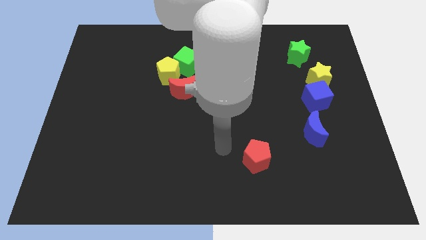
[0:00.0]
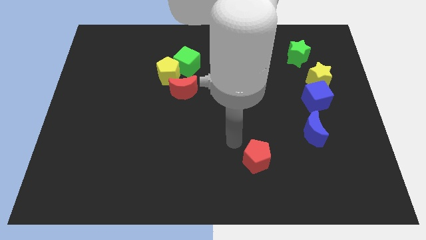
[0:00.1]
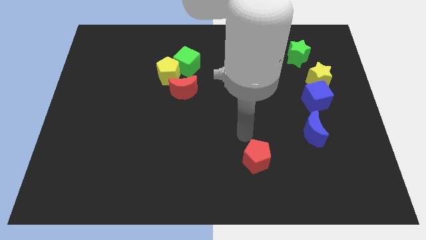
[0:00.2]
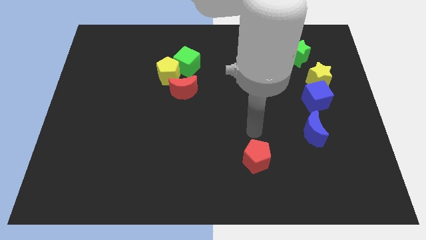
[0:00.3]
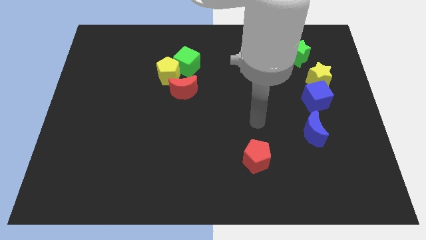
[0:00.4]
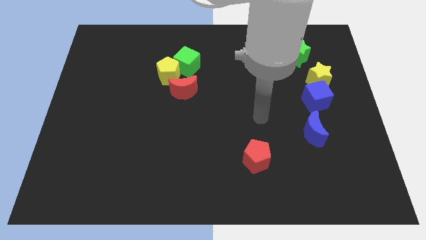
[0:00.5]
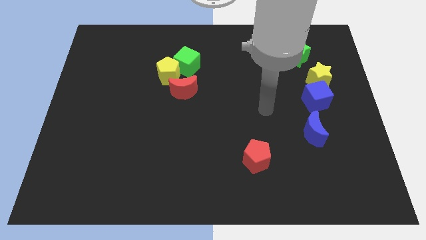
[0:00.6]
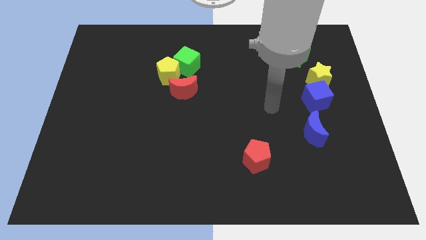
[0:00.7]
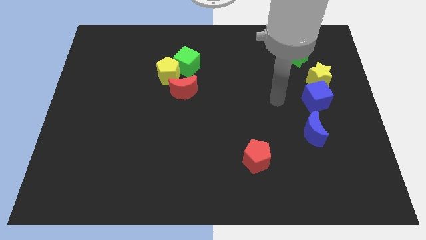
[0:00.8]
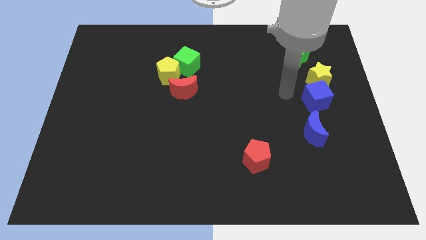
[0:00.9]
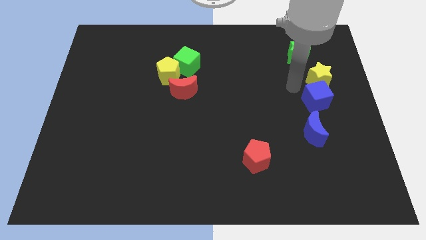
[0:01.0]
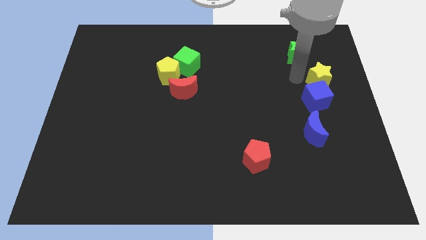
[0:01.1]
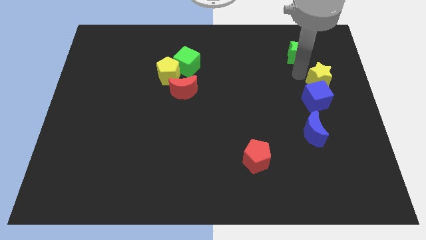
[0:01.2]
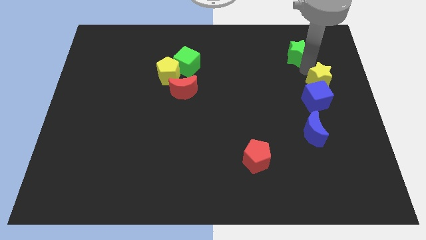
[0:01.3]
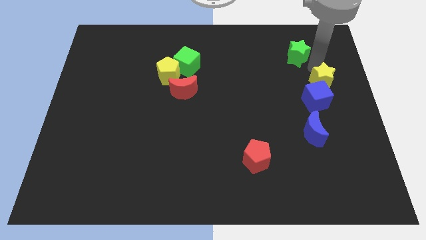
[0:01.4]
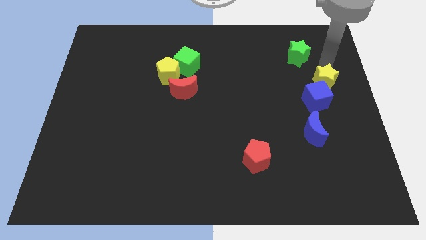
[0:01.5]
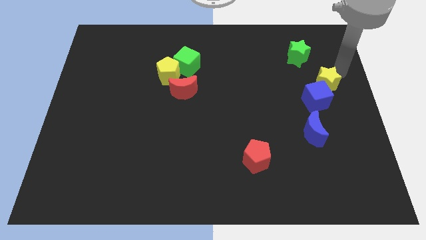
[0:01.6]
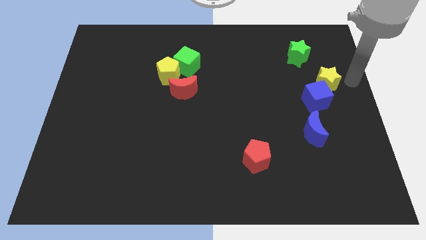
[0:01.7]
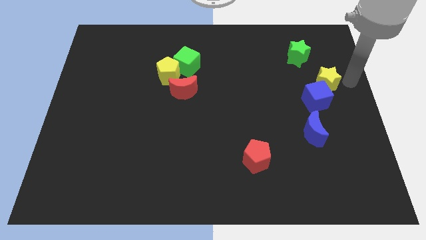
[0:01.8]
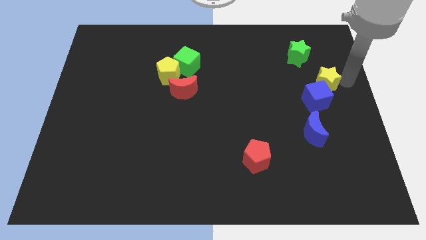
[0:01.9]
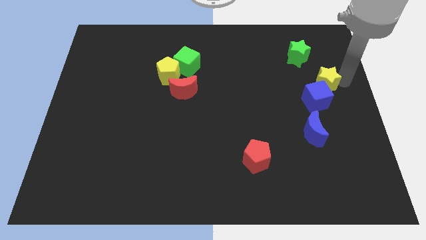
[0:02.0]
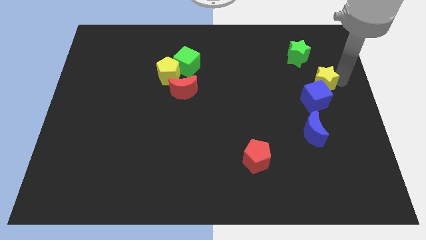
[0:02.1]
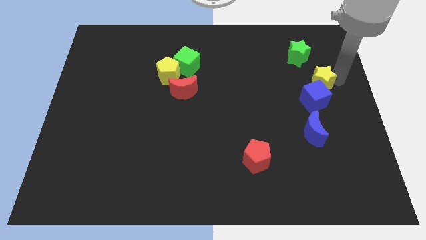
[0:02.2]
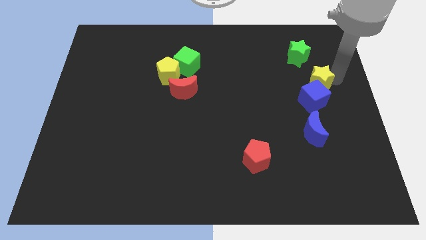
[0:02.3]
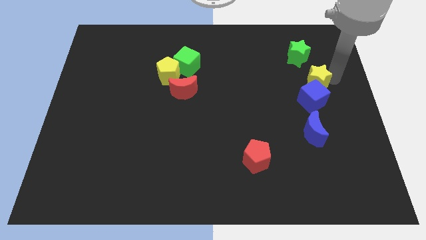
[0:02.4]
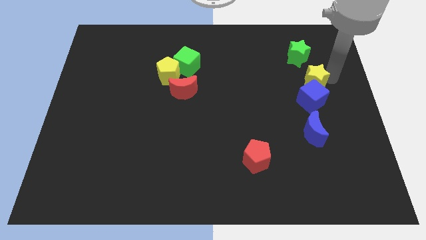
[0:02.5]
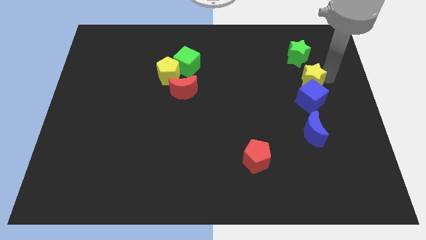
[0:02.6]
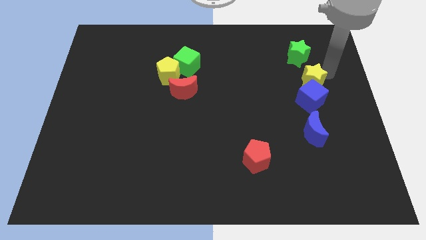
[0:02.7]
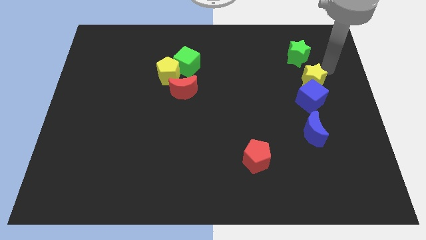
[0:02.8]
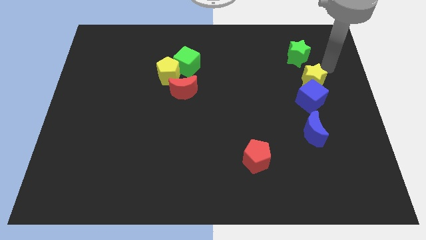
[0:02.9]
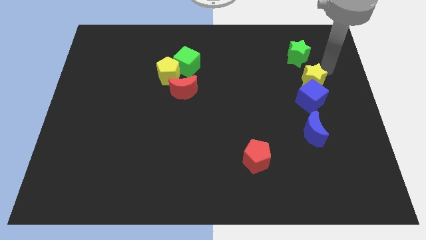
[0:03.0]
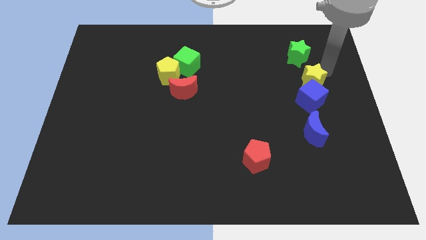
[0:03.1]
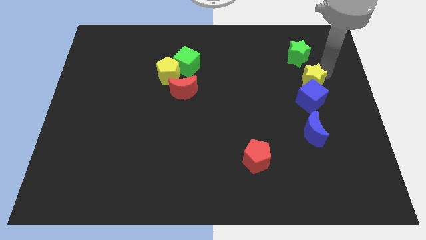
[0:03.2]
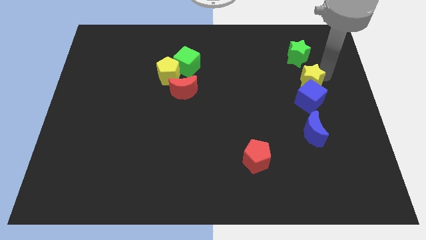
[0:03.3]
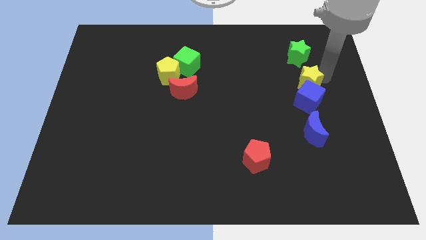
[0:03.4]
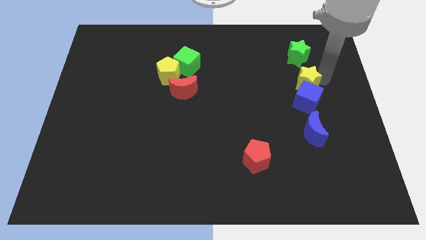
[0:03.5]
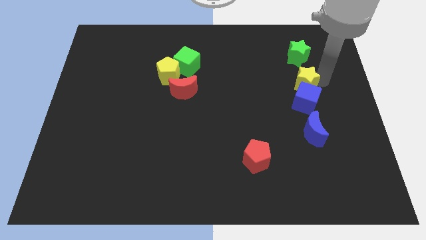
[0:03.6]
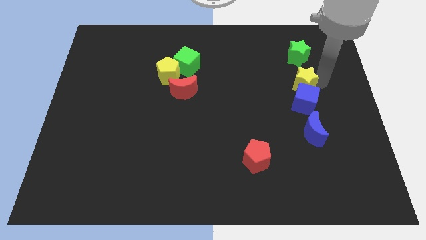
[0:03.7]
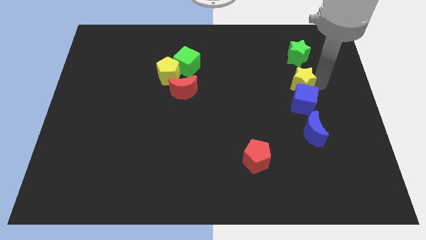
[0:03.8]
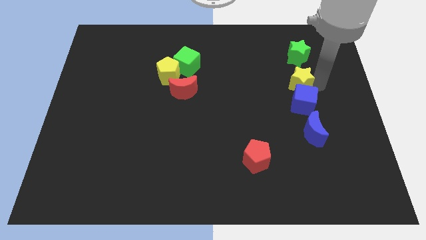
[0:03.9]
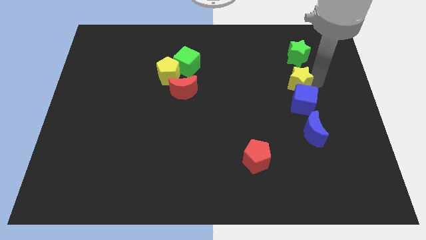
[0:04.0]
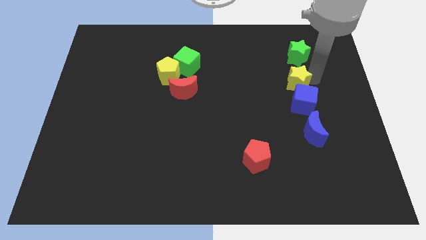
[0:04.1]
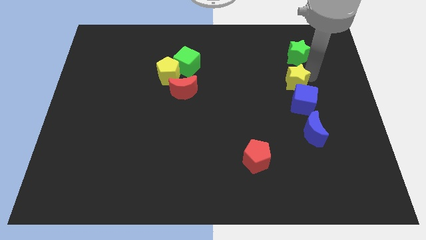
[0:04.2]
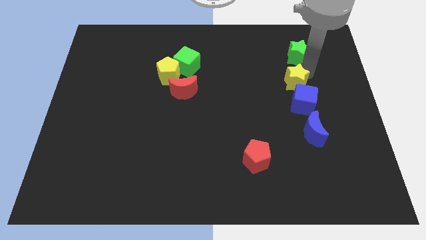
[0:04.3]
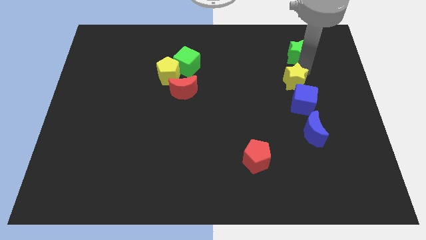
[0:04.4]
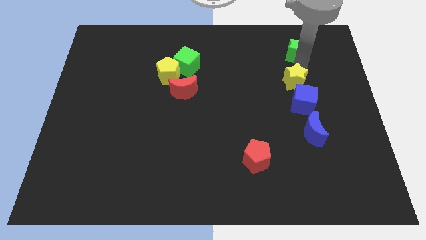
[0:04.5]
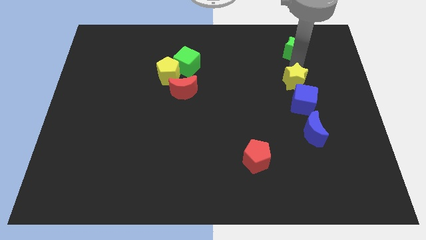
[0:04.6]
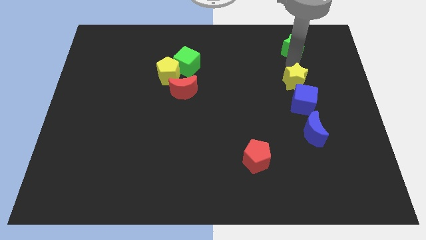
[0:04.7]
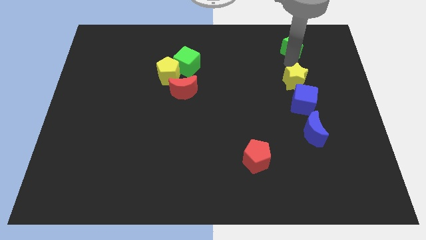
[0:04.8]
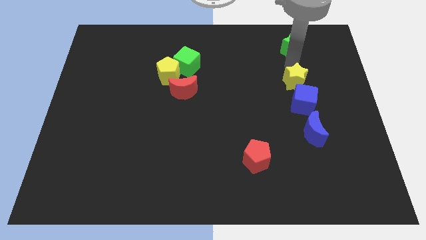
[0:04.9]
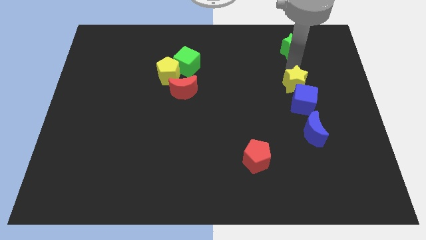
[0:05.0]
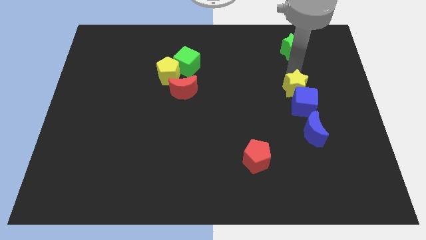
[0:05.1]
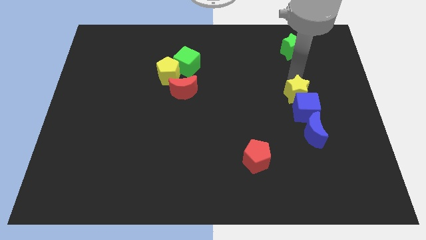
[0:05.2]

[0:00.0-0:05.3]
slightly push the yellow star down and left diagonally

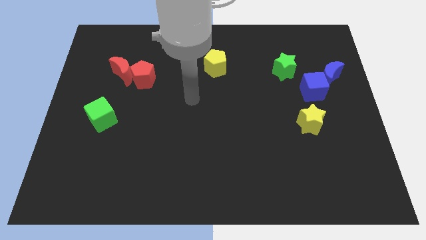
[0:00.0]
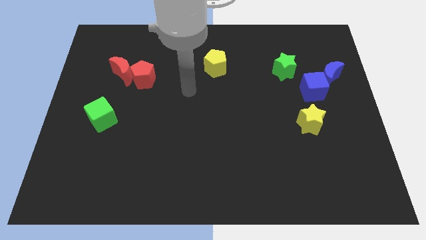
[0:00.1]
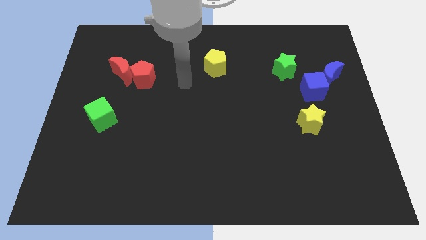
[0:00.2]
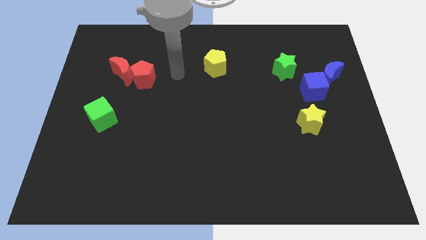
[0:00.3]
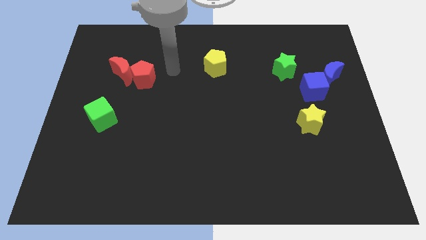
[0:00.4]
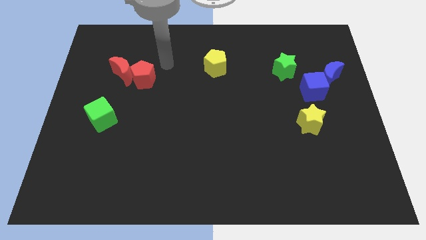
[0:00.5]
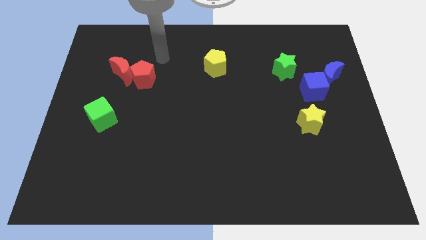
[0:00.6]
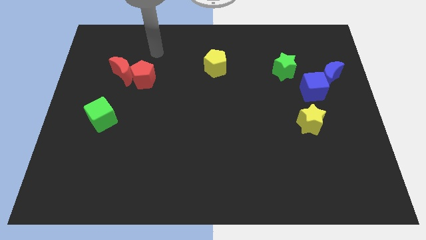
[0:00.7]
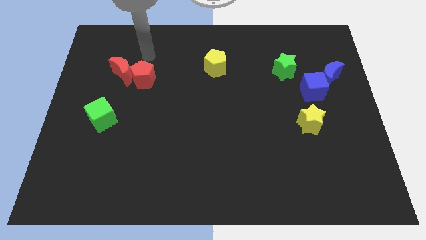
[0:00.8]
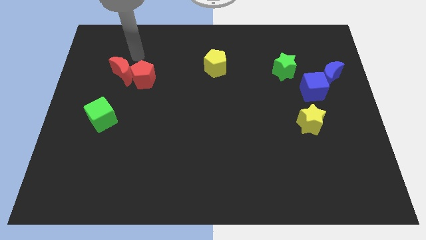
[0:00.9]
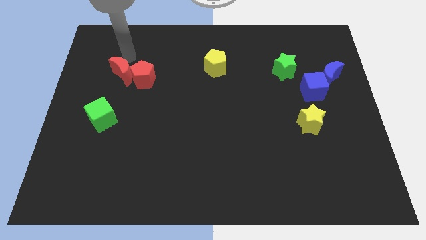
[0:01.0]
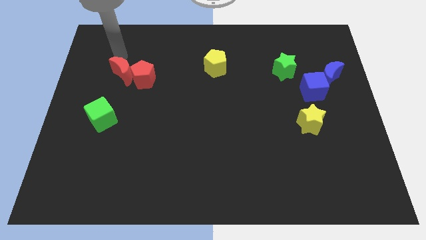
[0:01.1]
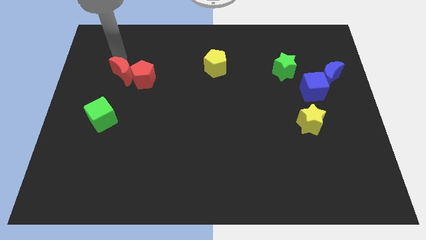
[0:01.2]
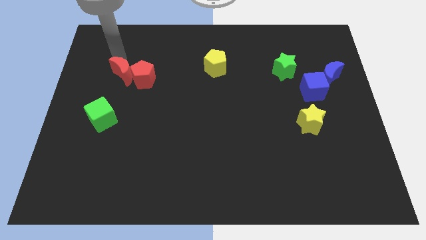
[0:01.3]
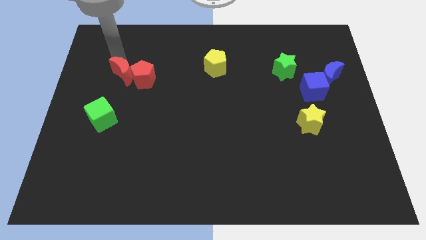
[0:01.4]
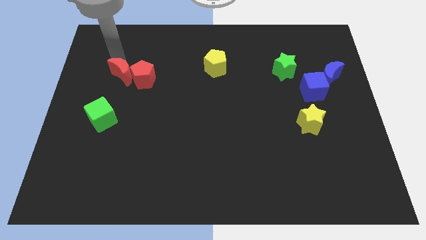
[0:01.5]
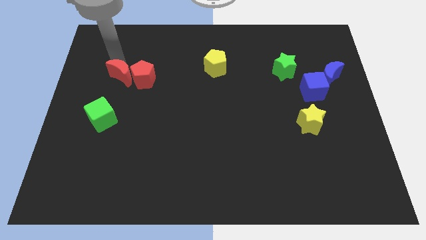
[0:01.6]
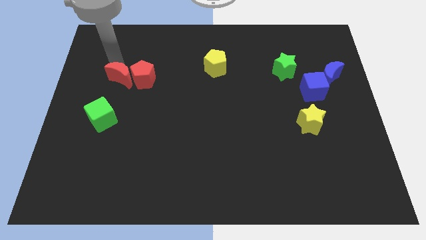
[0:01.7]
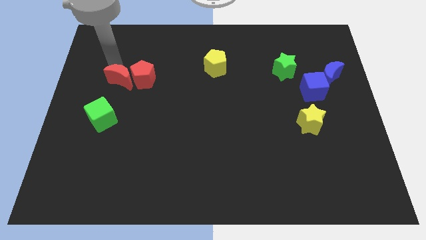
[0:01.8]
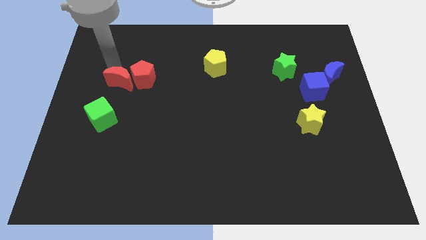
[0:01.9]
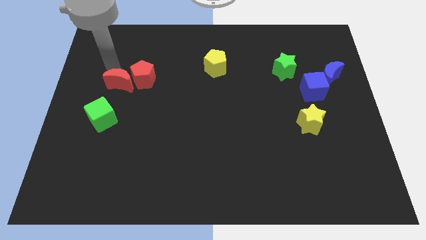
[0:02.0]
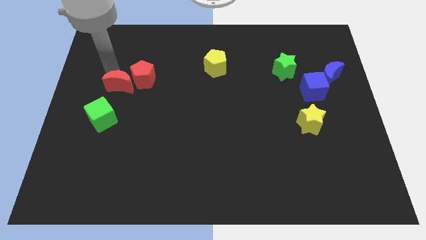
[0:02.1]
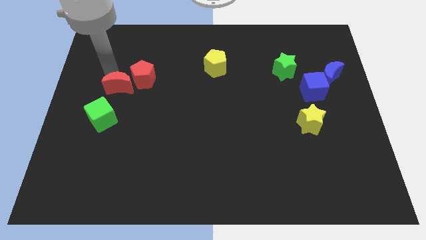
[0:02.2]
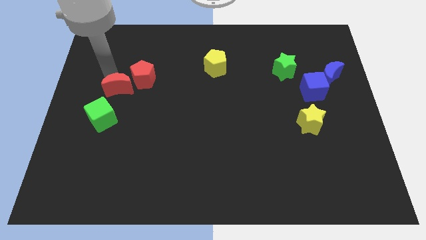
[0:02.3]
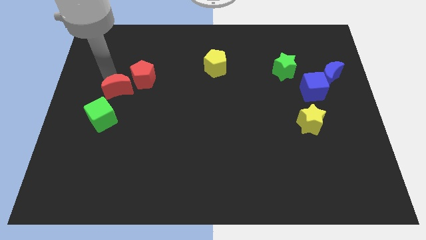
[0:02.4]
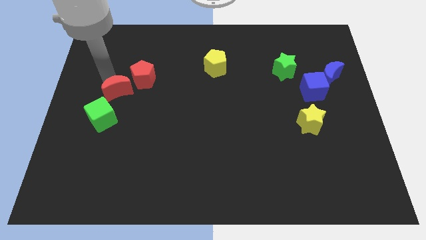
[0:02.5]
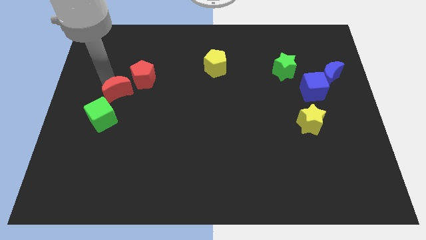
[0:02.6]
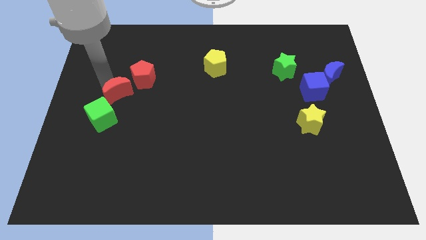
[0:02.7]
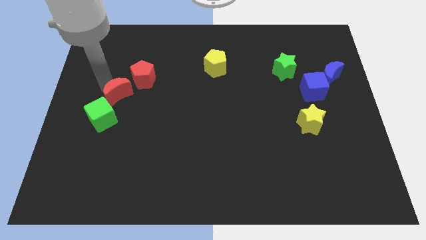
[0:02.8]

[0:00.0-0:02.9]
push the red moon a bit down
